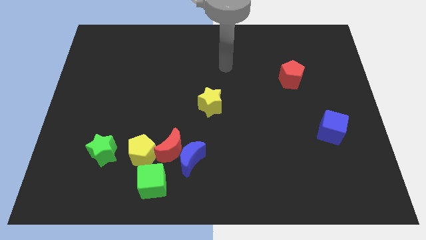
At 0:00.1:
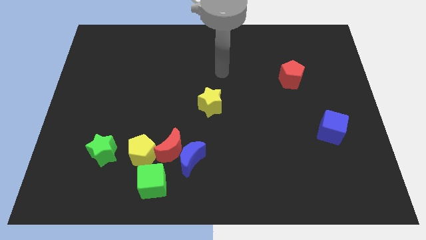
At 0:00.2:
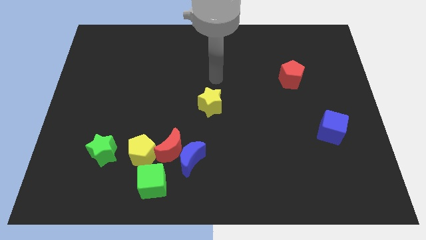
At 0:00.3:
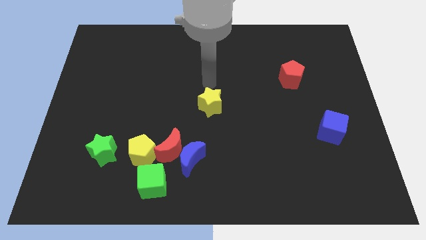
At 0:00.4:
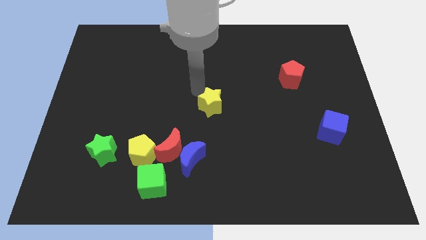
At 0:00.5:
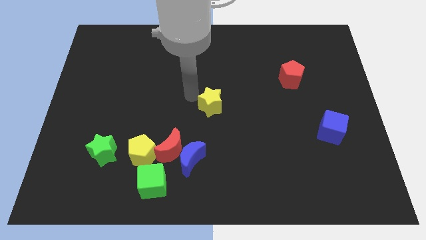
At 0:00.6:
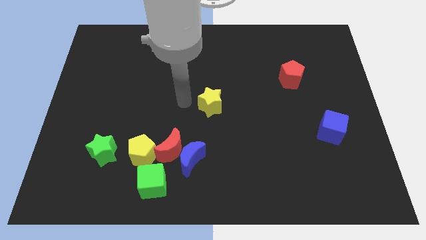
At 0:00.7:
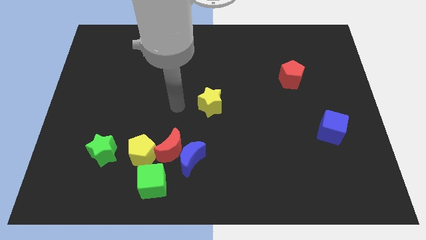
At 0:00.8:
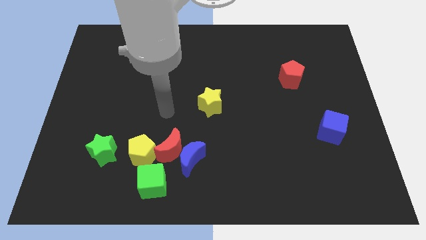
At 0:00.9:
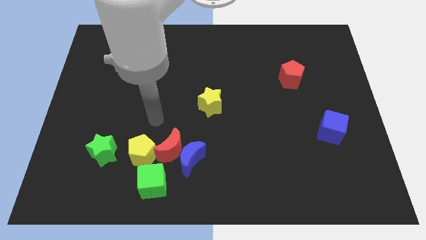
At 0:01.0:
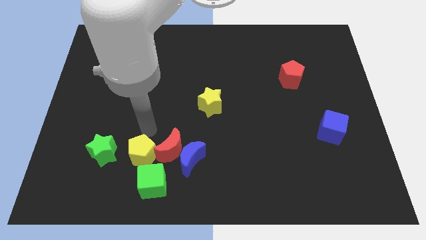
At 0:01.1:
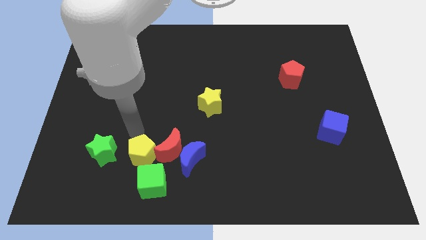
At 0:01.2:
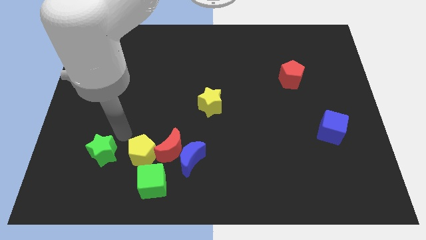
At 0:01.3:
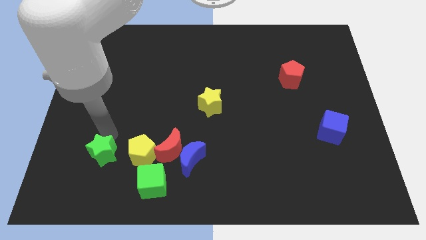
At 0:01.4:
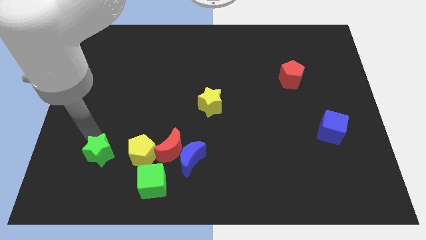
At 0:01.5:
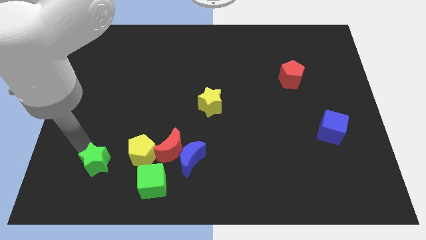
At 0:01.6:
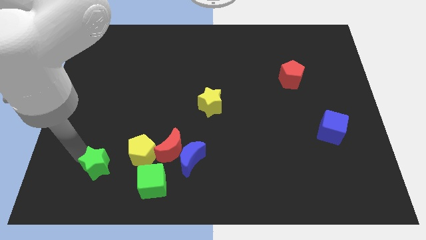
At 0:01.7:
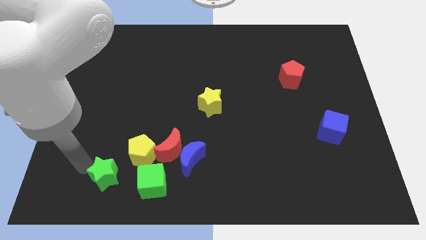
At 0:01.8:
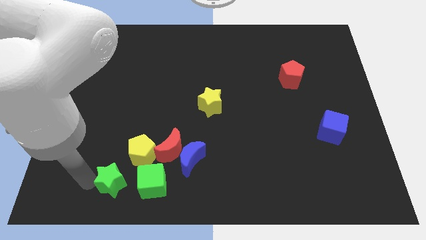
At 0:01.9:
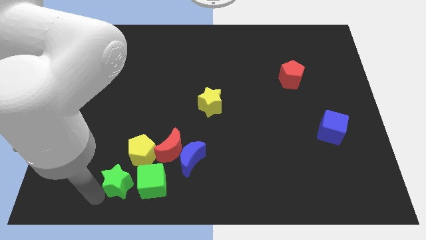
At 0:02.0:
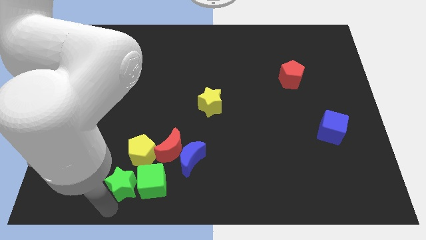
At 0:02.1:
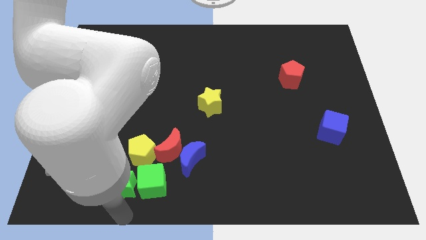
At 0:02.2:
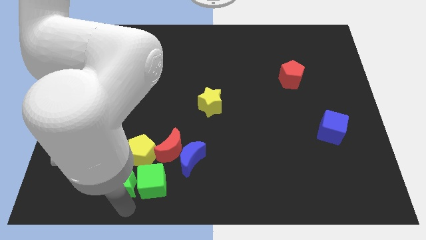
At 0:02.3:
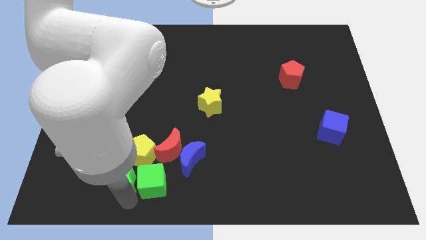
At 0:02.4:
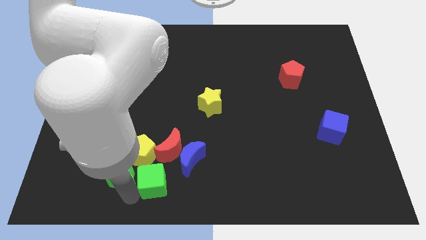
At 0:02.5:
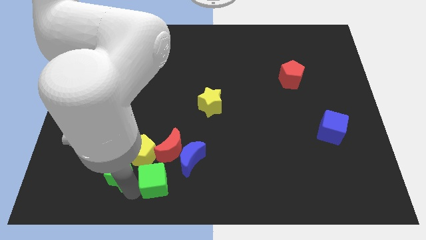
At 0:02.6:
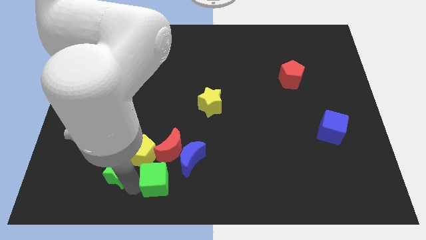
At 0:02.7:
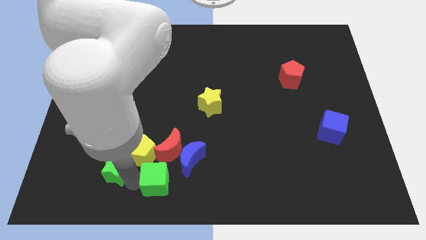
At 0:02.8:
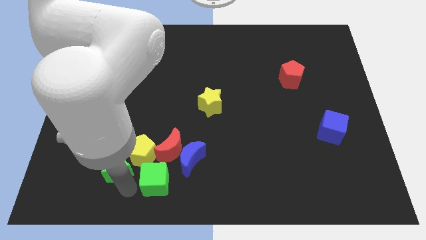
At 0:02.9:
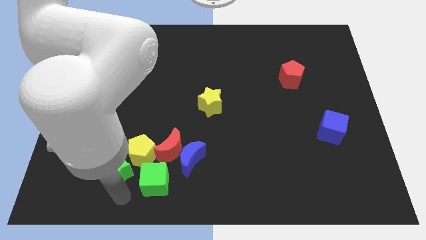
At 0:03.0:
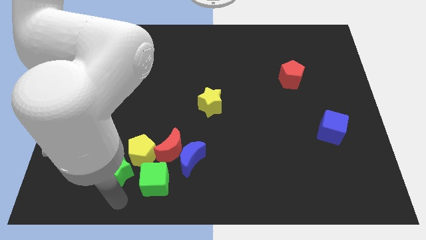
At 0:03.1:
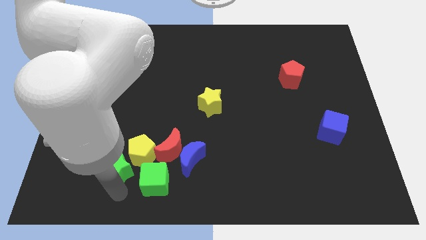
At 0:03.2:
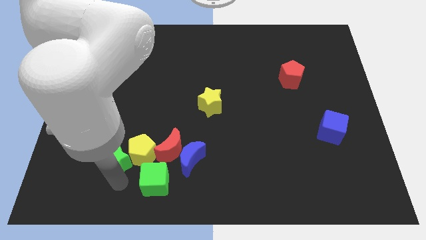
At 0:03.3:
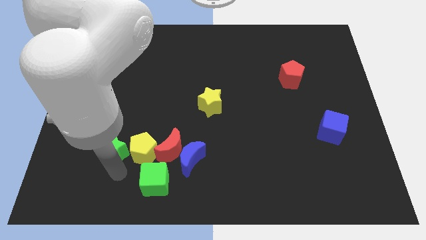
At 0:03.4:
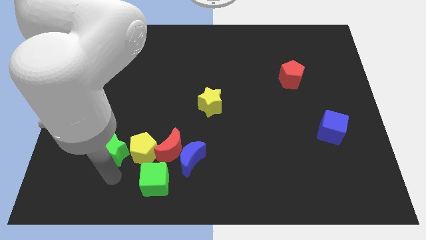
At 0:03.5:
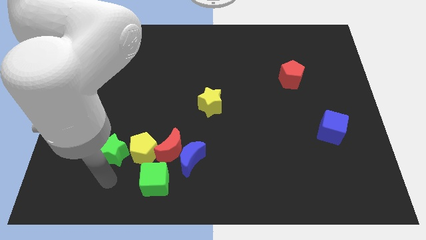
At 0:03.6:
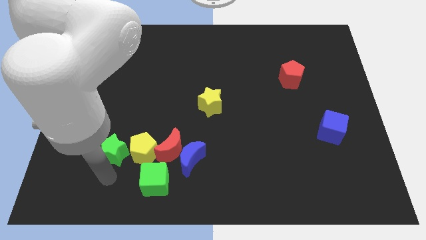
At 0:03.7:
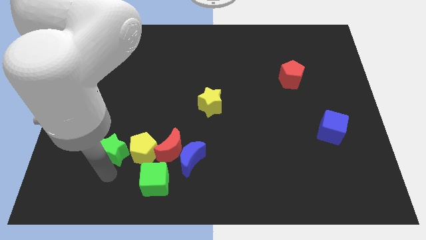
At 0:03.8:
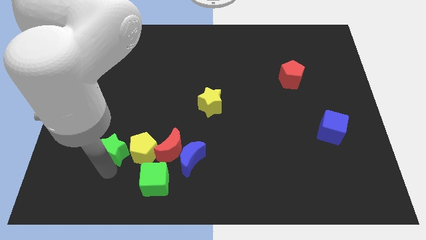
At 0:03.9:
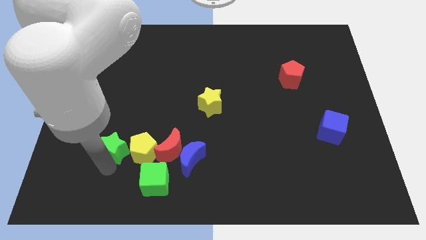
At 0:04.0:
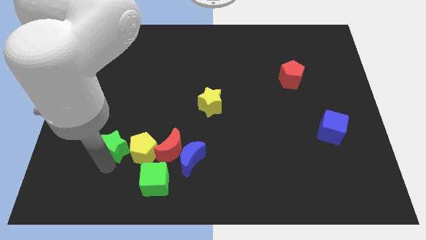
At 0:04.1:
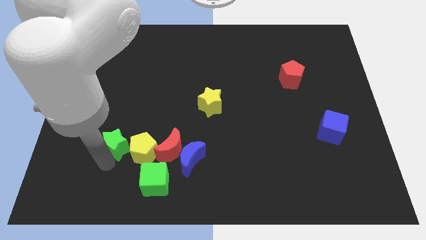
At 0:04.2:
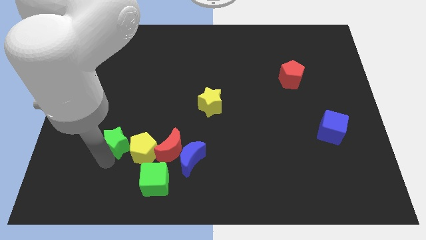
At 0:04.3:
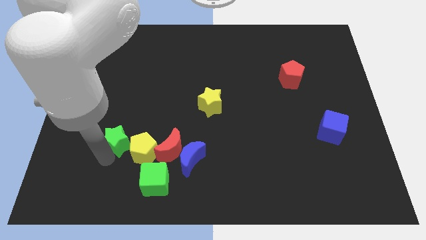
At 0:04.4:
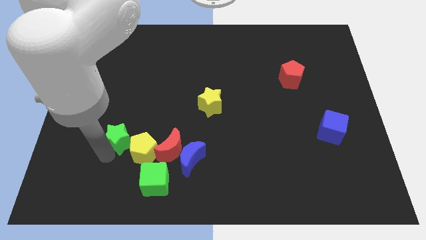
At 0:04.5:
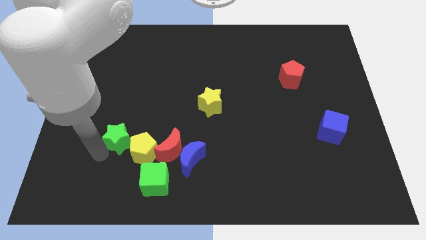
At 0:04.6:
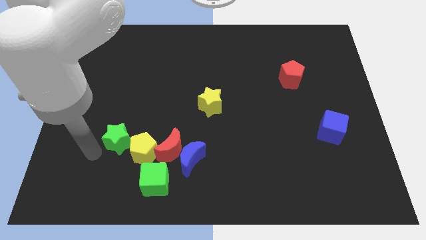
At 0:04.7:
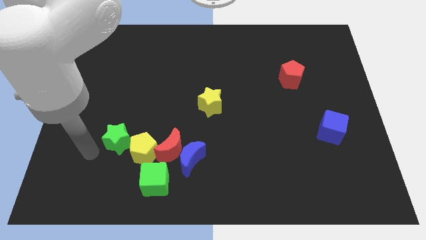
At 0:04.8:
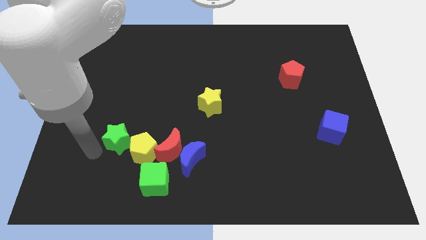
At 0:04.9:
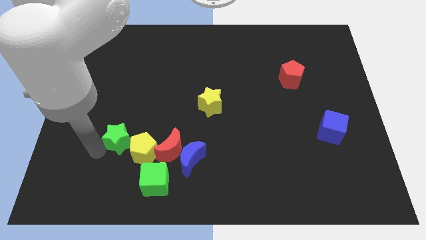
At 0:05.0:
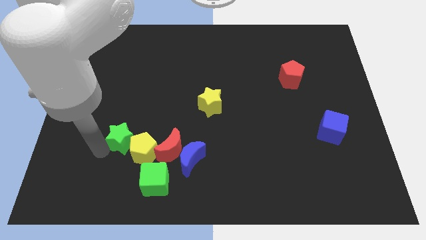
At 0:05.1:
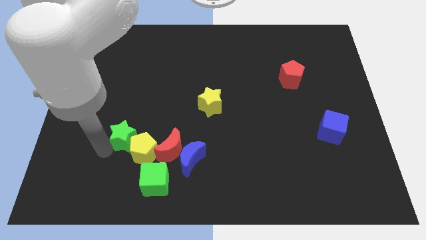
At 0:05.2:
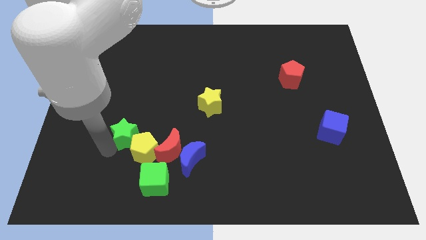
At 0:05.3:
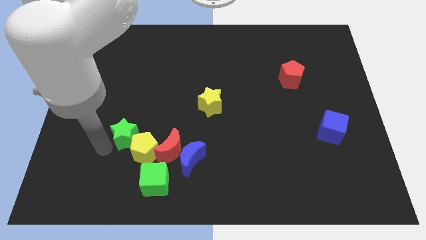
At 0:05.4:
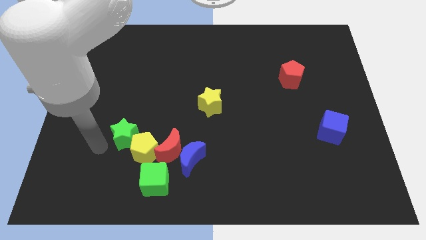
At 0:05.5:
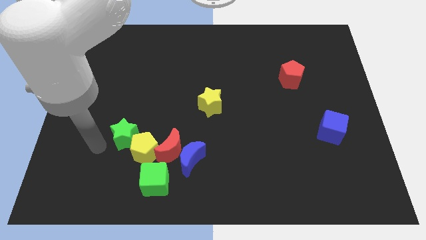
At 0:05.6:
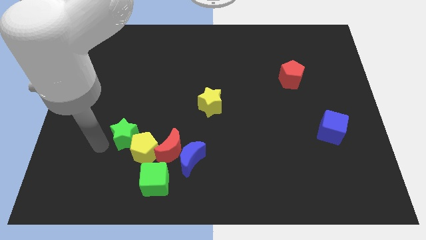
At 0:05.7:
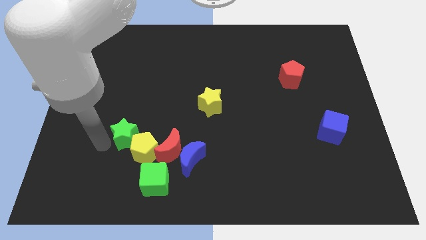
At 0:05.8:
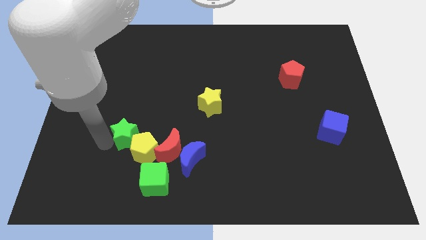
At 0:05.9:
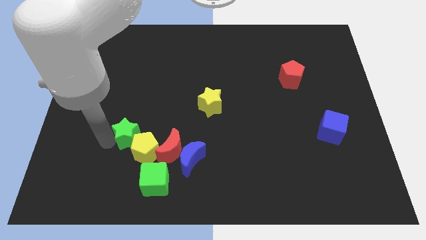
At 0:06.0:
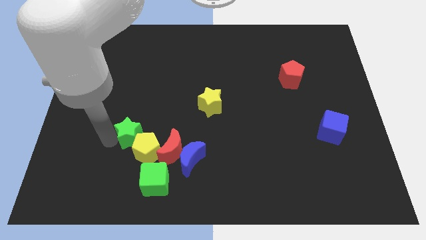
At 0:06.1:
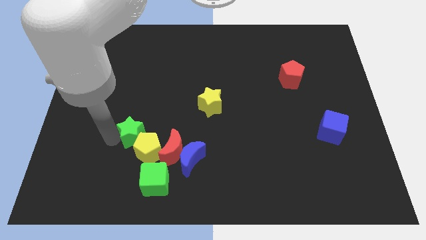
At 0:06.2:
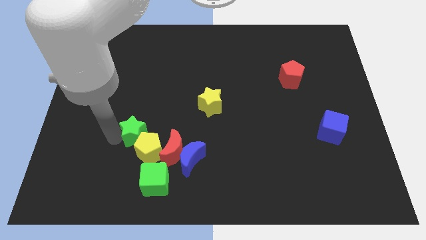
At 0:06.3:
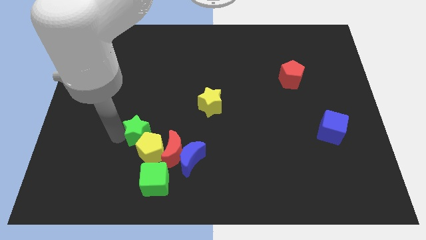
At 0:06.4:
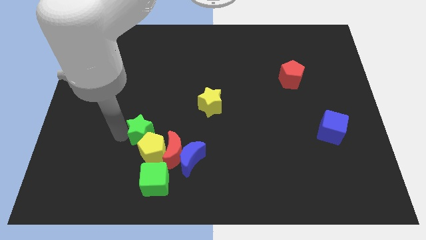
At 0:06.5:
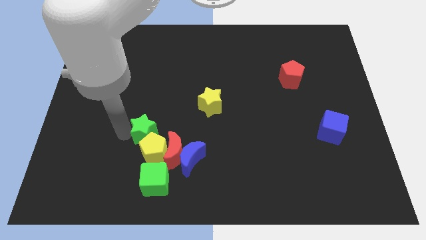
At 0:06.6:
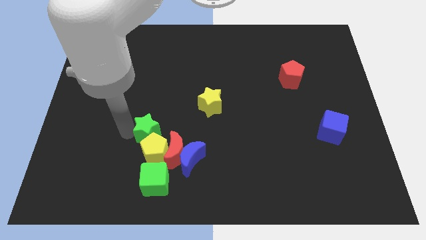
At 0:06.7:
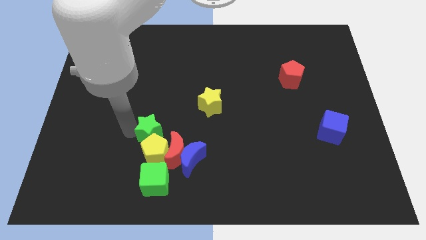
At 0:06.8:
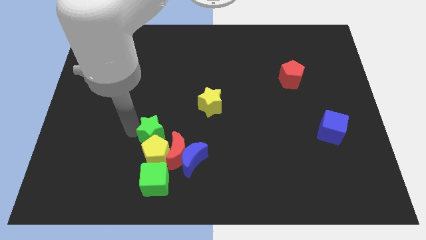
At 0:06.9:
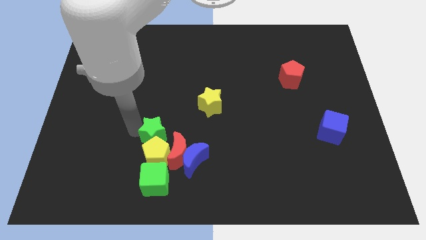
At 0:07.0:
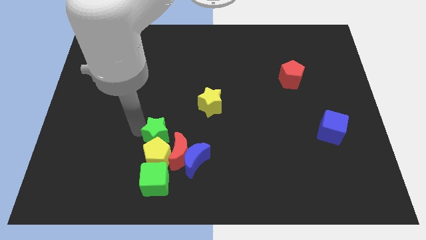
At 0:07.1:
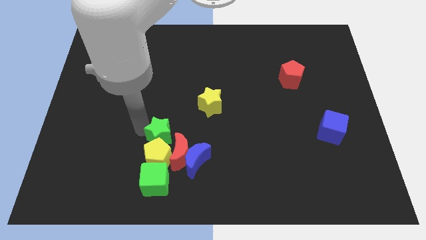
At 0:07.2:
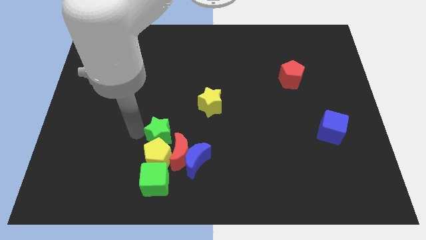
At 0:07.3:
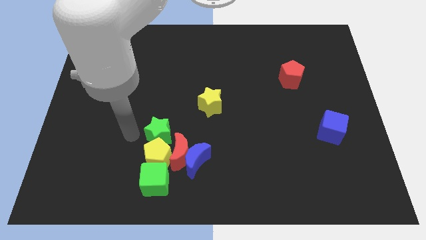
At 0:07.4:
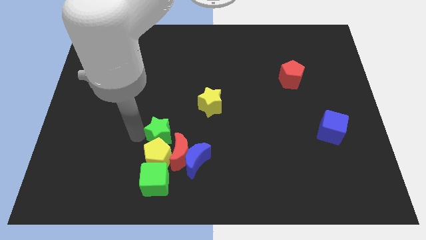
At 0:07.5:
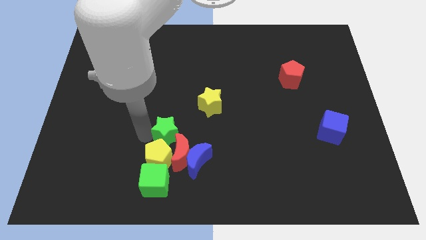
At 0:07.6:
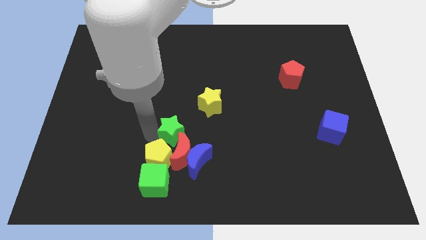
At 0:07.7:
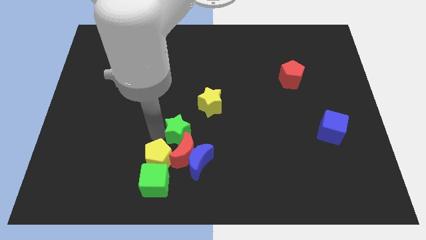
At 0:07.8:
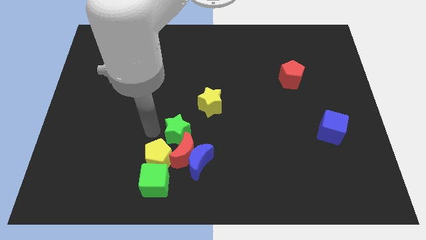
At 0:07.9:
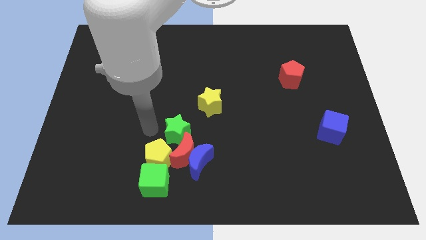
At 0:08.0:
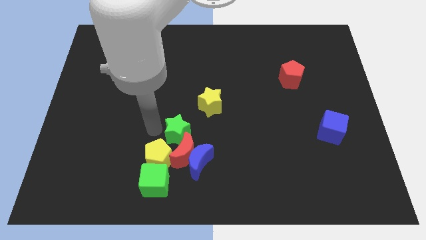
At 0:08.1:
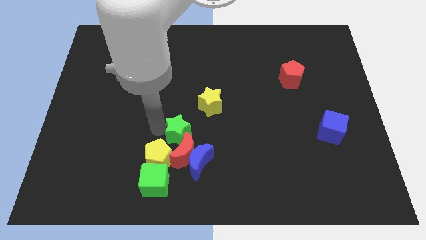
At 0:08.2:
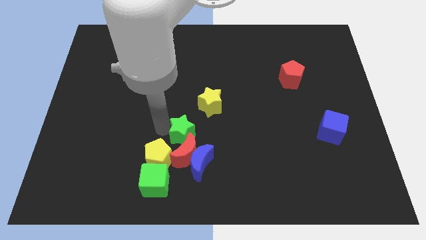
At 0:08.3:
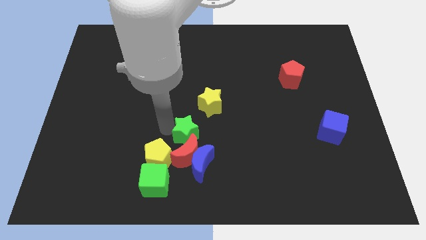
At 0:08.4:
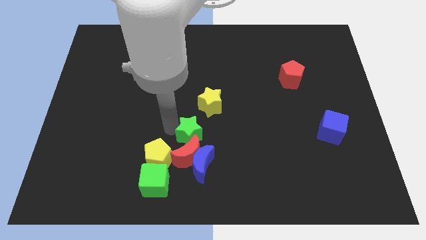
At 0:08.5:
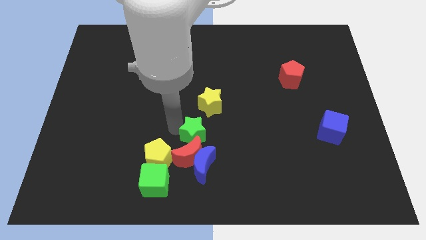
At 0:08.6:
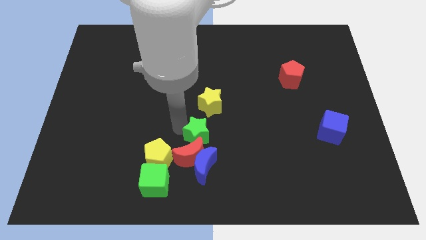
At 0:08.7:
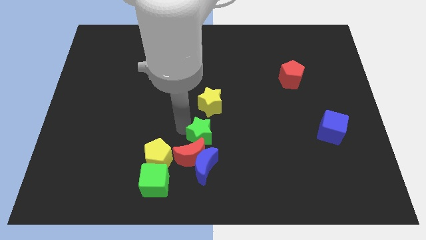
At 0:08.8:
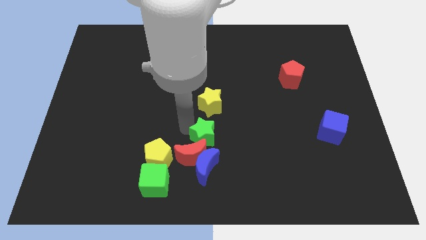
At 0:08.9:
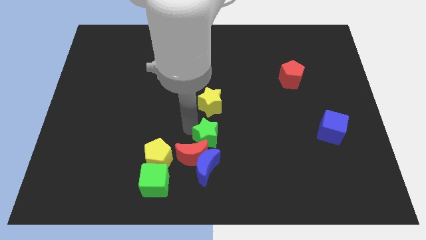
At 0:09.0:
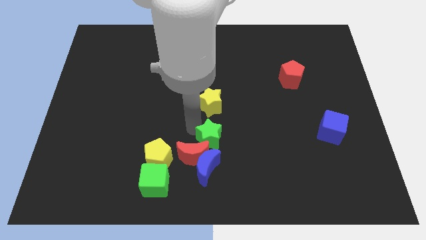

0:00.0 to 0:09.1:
move the green star diagonally up and to the right of the blue moon
